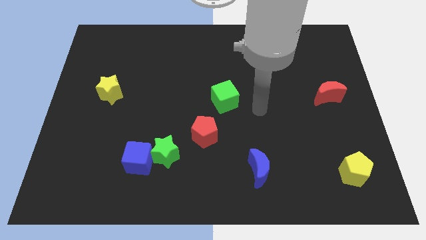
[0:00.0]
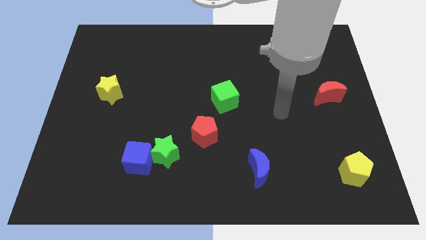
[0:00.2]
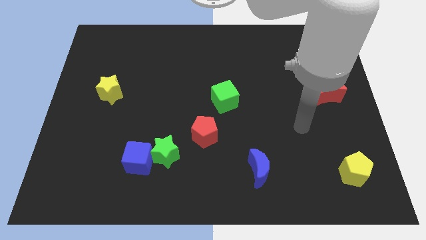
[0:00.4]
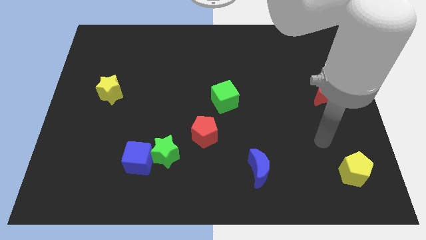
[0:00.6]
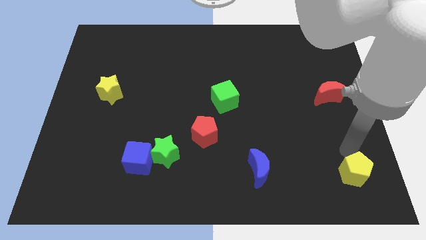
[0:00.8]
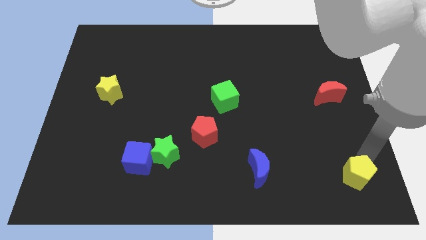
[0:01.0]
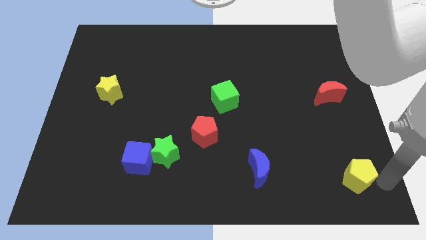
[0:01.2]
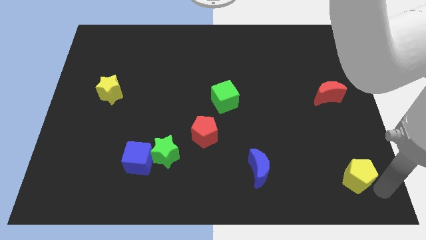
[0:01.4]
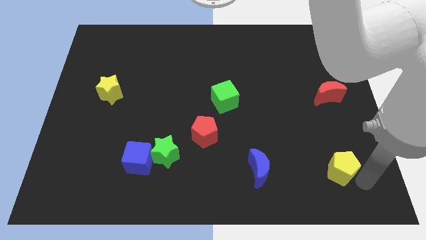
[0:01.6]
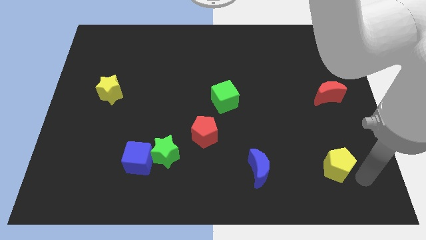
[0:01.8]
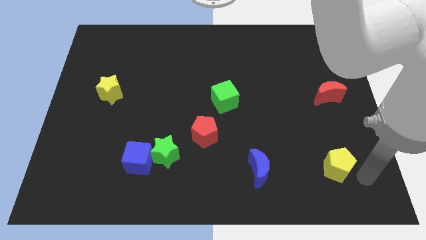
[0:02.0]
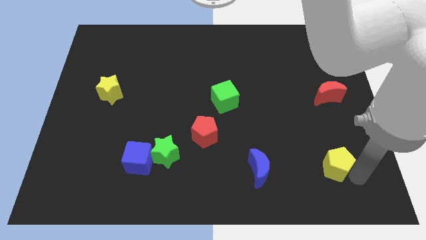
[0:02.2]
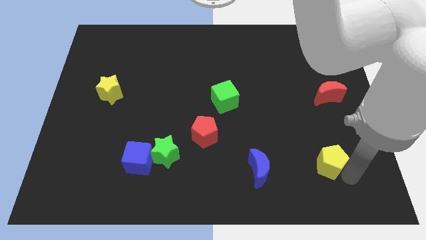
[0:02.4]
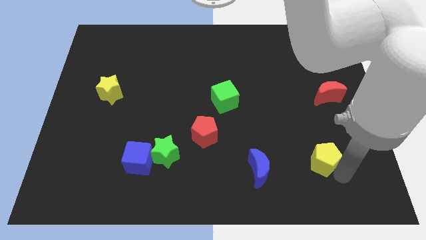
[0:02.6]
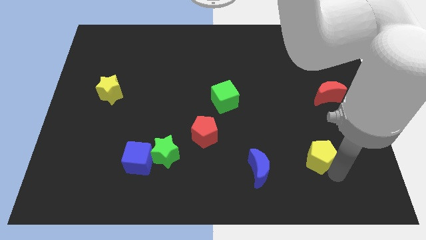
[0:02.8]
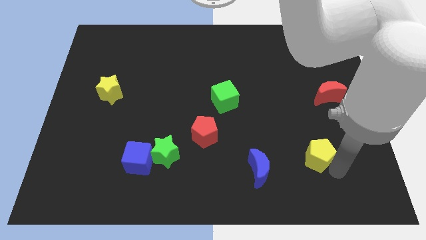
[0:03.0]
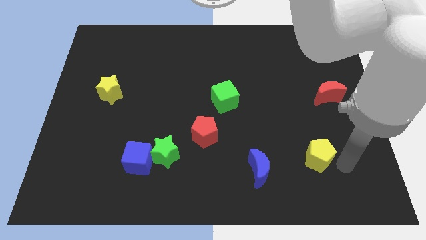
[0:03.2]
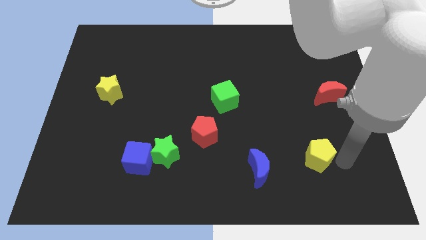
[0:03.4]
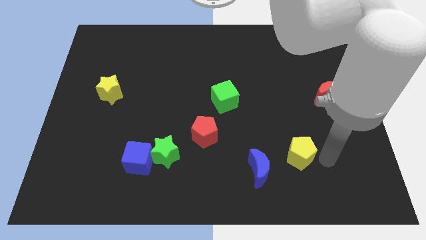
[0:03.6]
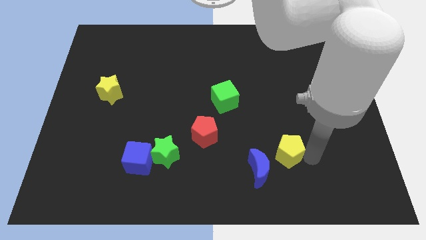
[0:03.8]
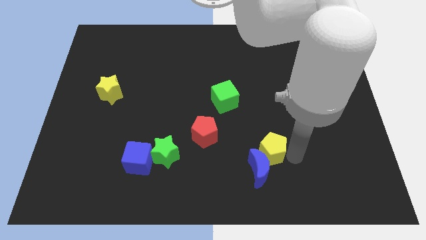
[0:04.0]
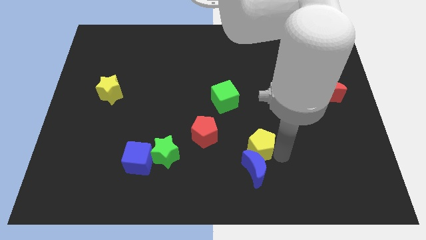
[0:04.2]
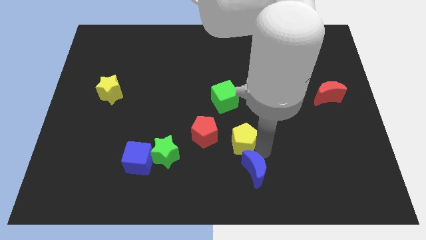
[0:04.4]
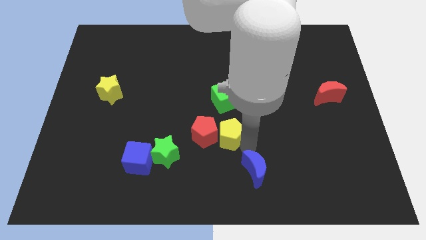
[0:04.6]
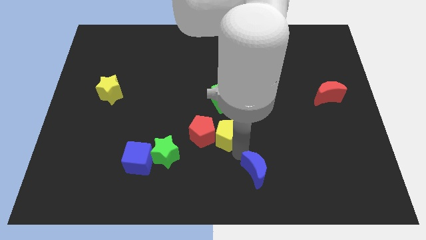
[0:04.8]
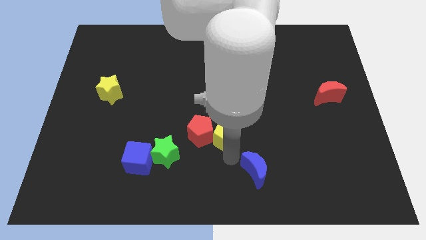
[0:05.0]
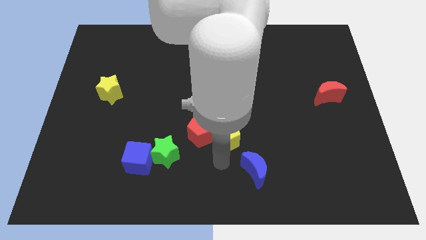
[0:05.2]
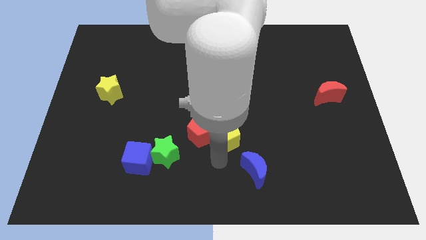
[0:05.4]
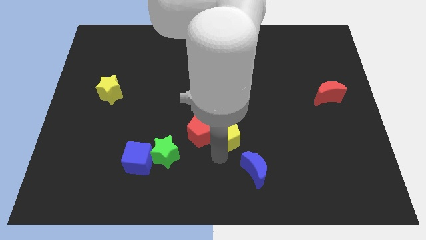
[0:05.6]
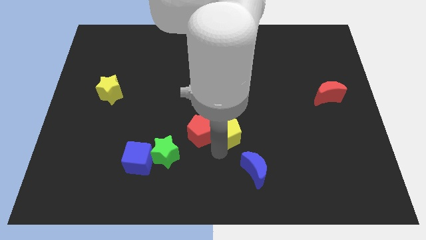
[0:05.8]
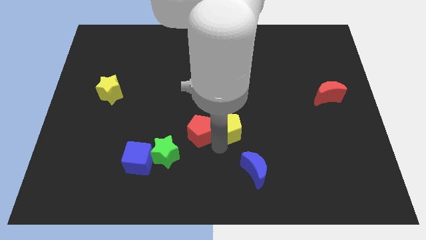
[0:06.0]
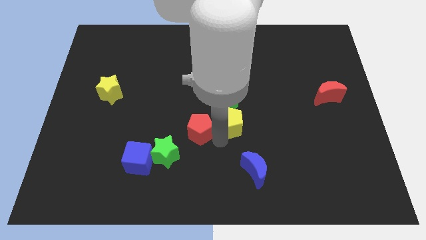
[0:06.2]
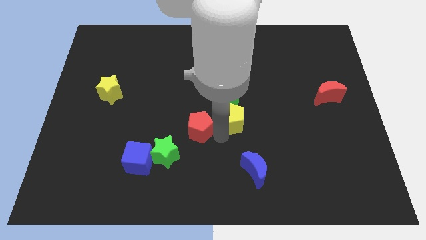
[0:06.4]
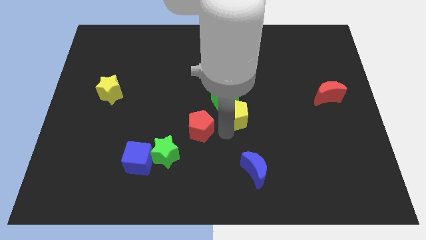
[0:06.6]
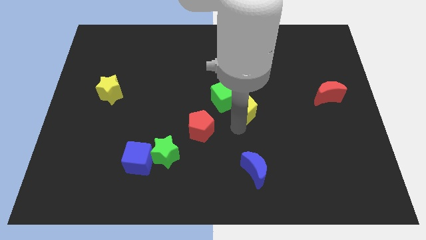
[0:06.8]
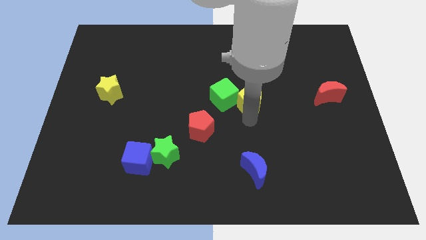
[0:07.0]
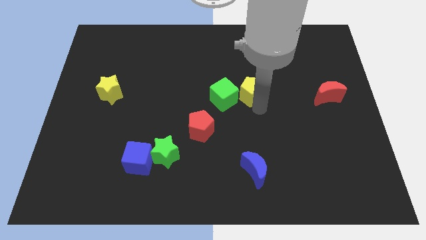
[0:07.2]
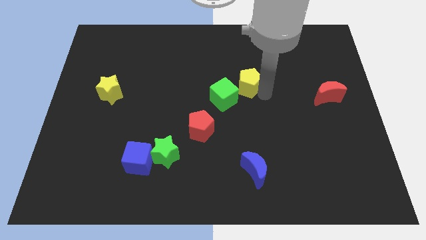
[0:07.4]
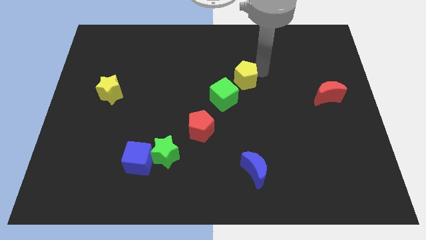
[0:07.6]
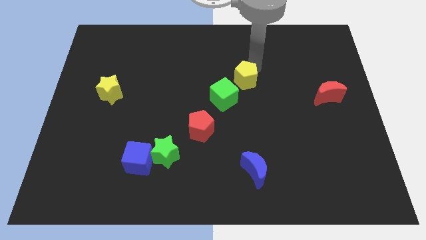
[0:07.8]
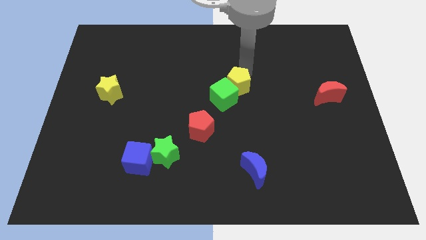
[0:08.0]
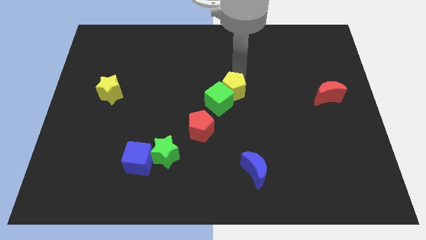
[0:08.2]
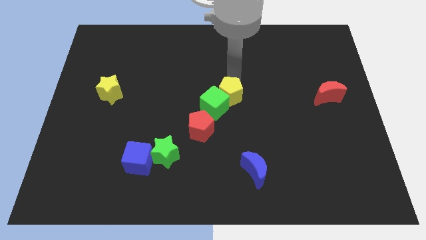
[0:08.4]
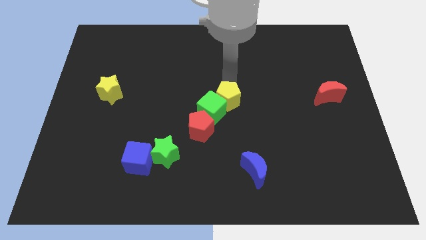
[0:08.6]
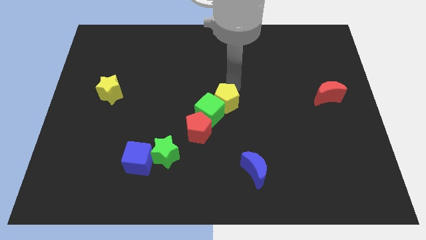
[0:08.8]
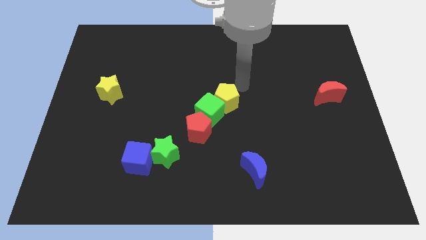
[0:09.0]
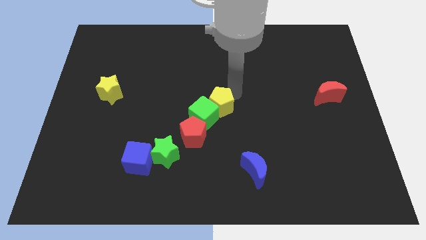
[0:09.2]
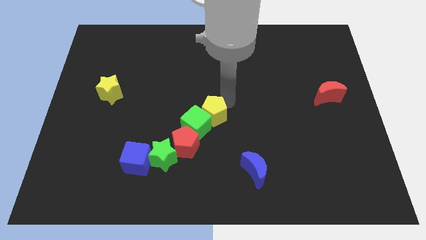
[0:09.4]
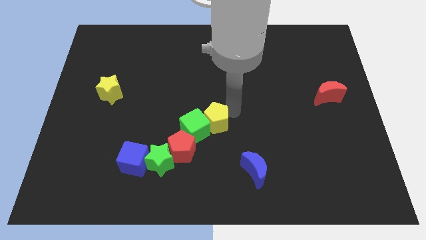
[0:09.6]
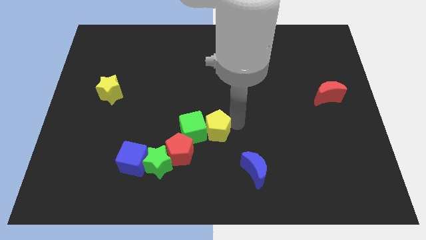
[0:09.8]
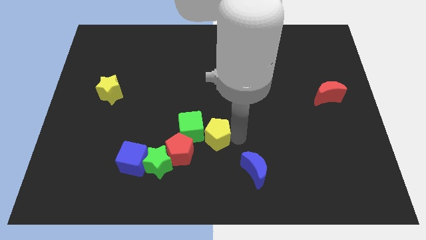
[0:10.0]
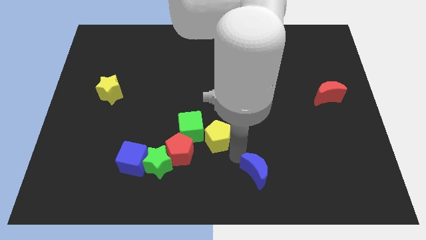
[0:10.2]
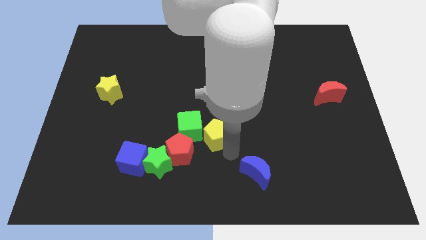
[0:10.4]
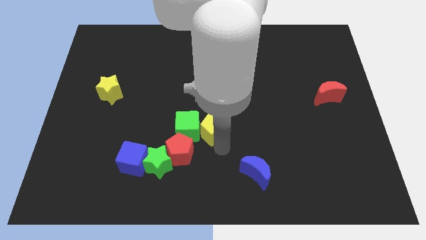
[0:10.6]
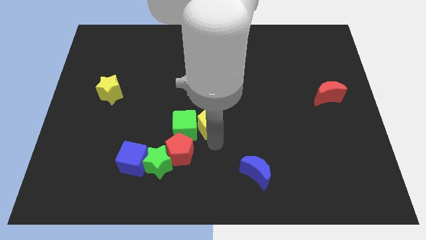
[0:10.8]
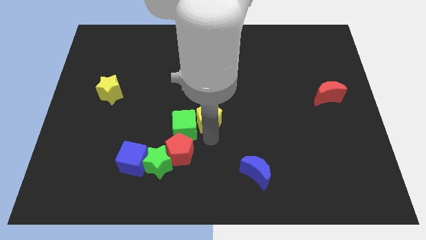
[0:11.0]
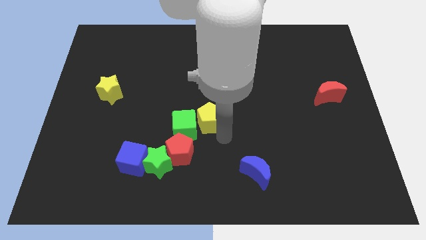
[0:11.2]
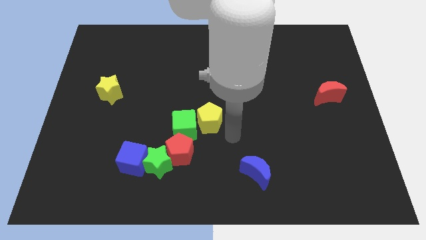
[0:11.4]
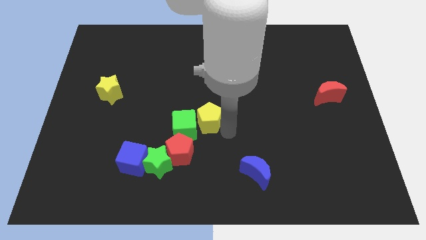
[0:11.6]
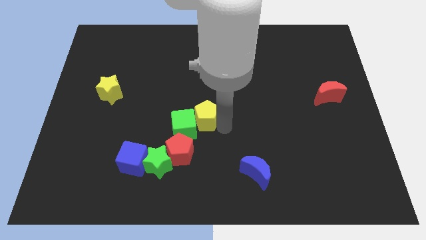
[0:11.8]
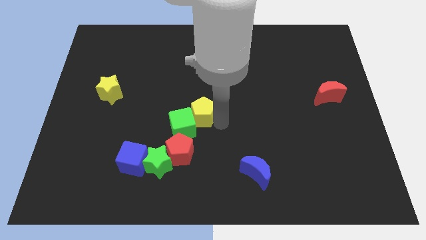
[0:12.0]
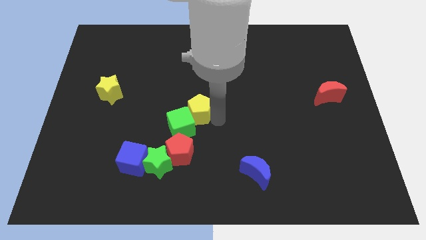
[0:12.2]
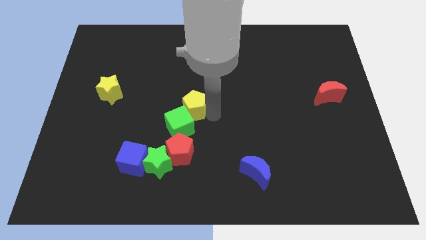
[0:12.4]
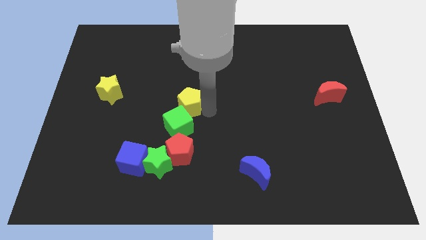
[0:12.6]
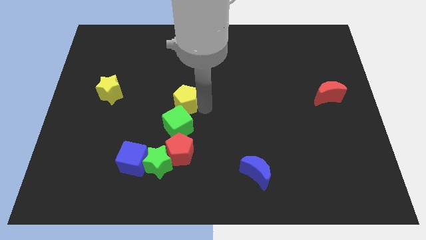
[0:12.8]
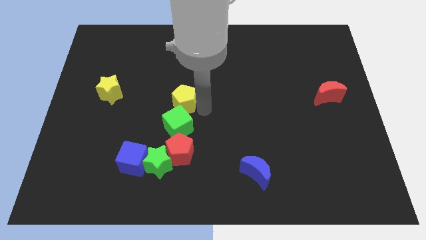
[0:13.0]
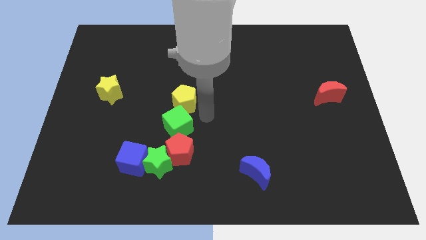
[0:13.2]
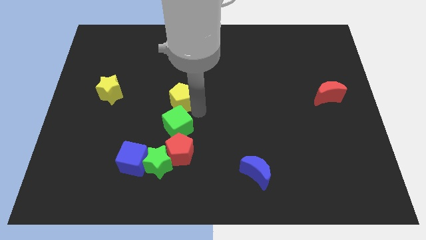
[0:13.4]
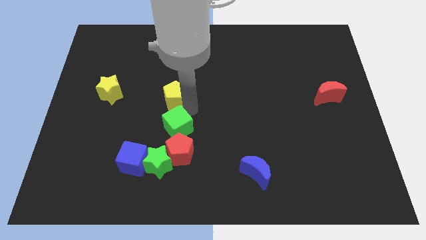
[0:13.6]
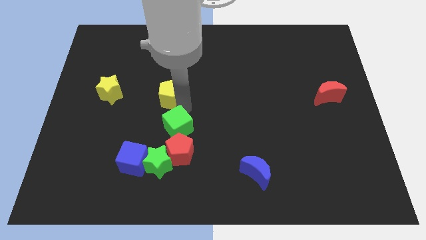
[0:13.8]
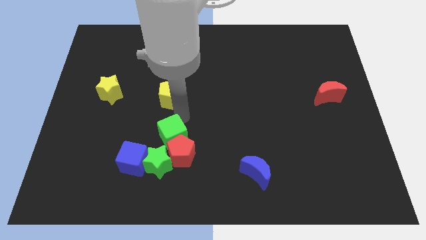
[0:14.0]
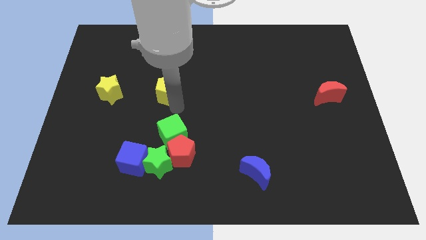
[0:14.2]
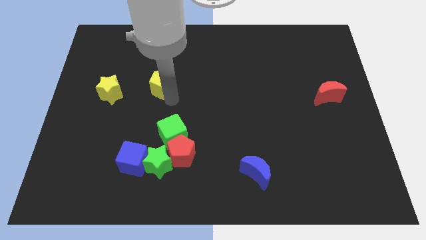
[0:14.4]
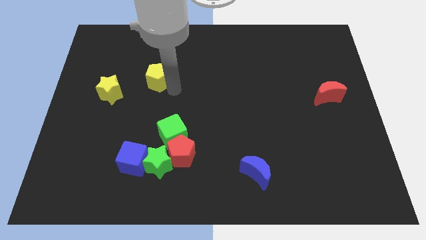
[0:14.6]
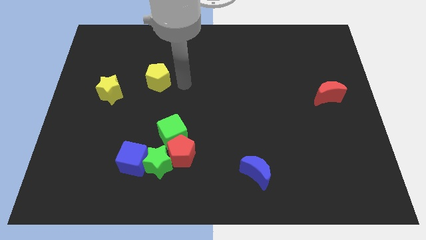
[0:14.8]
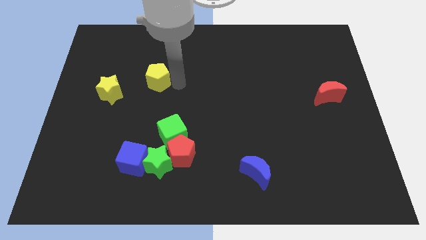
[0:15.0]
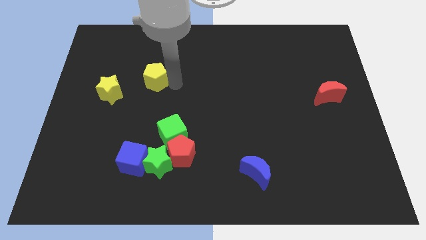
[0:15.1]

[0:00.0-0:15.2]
put the yellow pentagon to the top right side of the yellow star

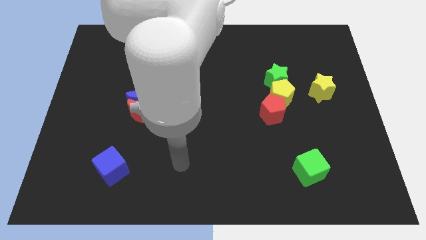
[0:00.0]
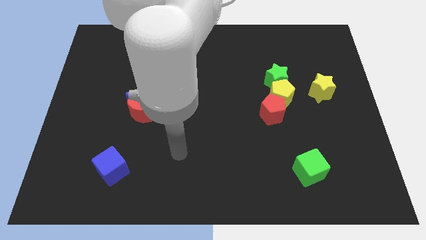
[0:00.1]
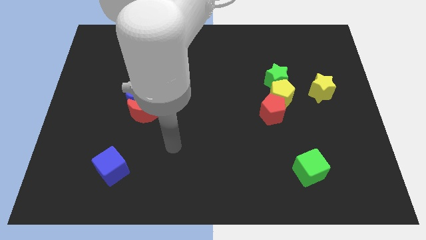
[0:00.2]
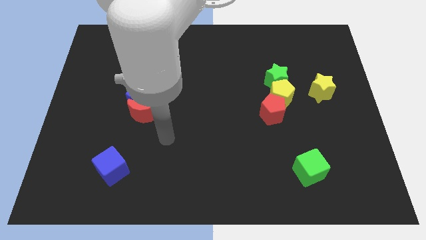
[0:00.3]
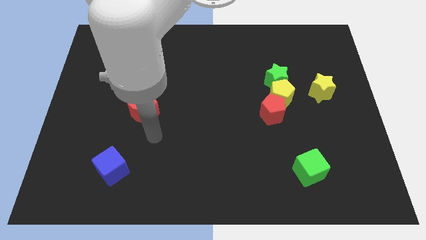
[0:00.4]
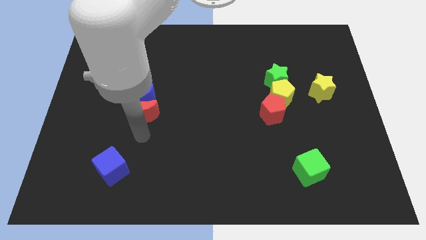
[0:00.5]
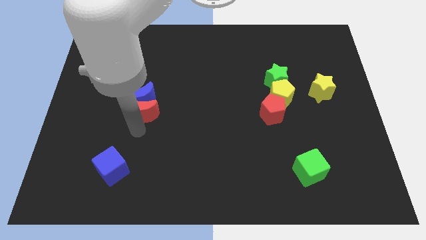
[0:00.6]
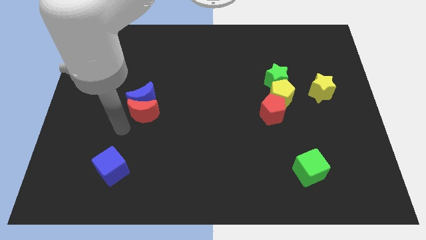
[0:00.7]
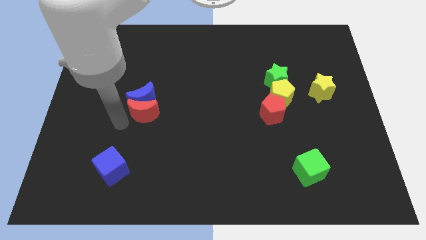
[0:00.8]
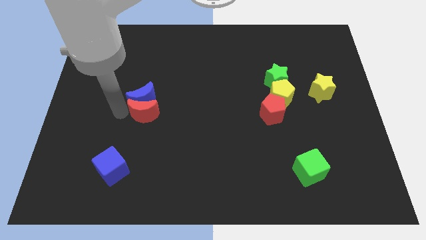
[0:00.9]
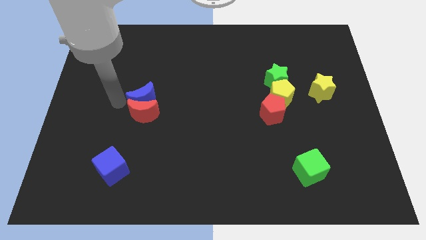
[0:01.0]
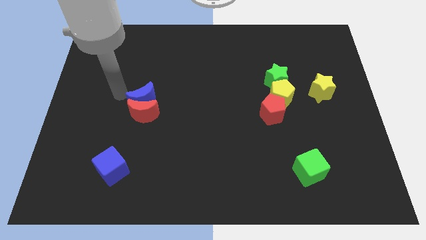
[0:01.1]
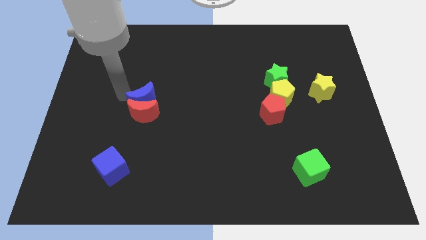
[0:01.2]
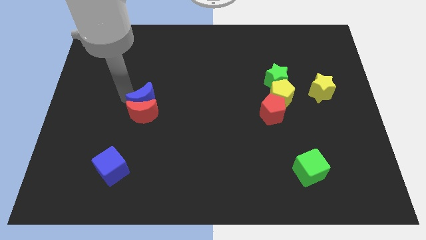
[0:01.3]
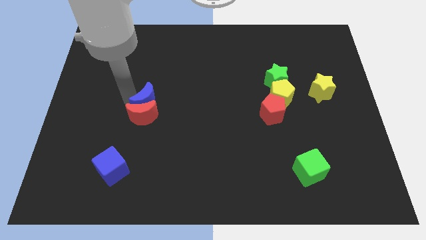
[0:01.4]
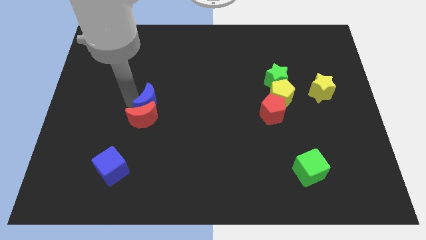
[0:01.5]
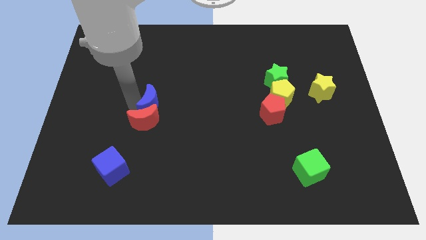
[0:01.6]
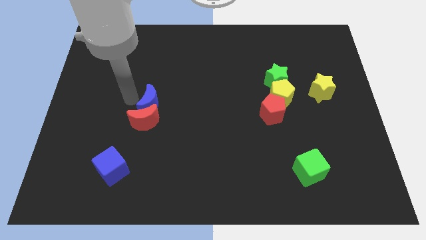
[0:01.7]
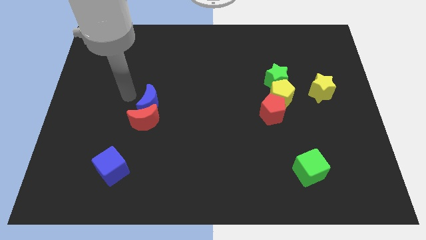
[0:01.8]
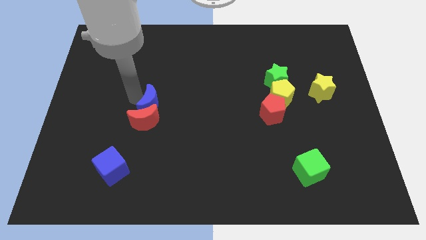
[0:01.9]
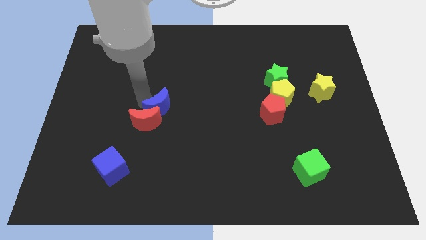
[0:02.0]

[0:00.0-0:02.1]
slide the blue moon to the right of the red moon
